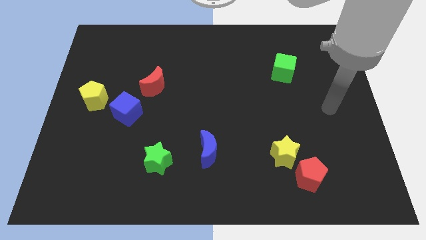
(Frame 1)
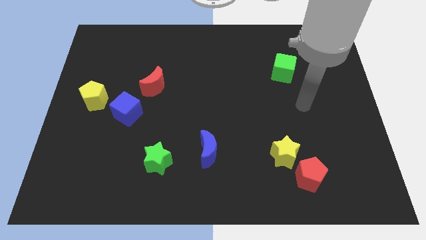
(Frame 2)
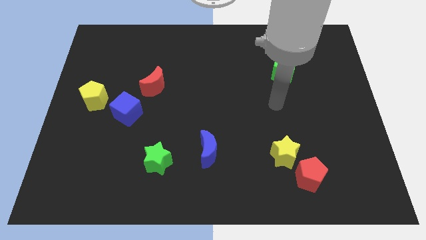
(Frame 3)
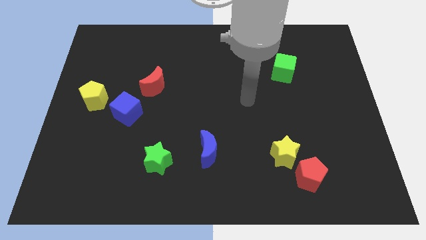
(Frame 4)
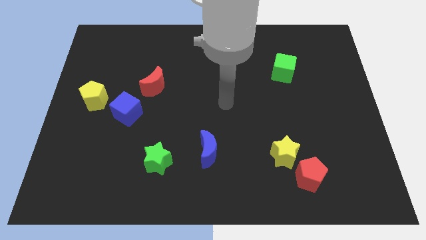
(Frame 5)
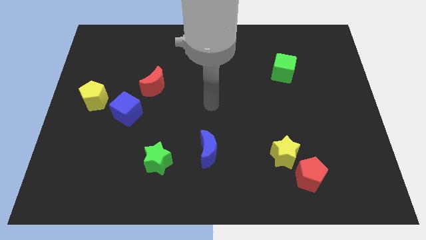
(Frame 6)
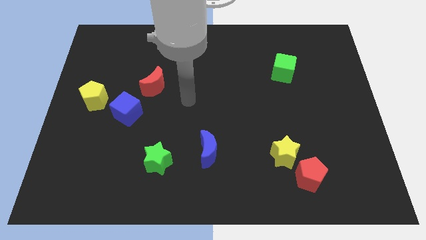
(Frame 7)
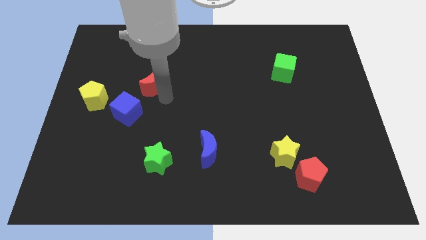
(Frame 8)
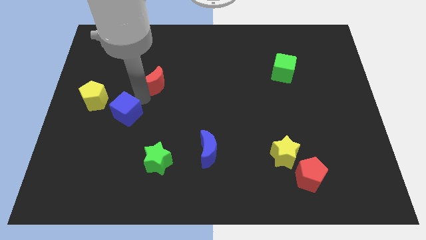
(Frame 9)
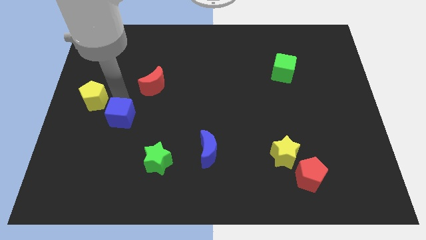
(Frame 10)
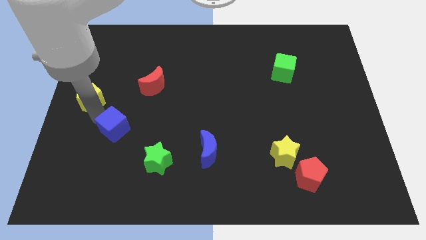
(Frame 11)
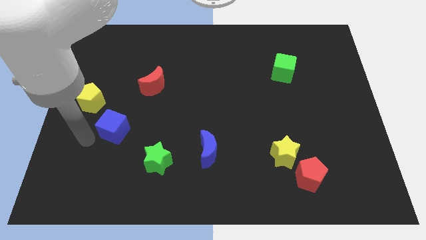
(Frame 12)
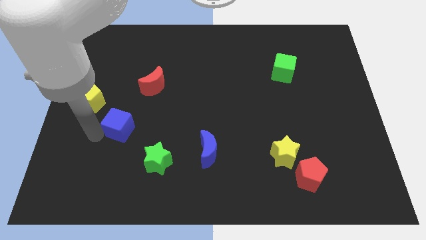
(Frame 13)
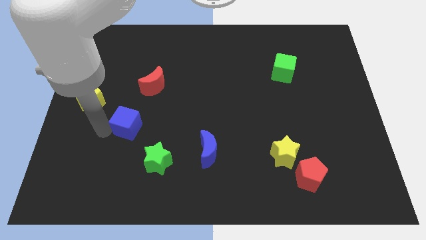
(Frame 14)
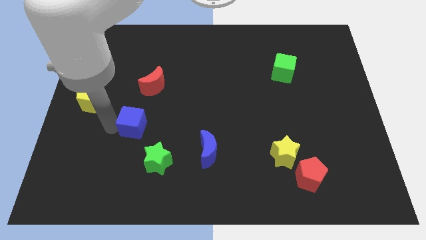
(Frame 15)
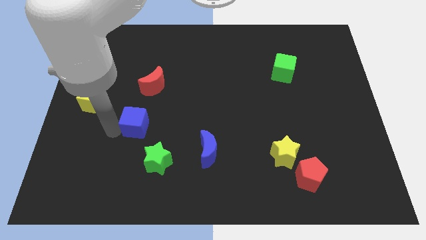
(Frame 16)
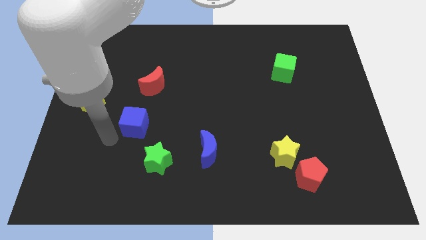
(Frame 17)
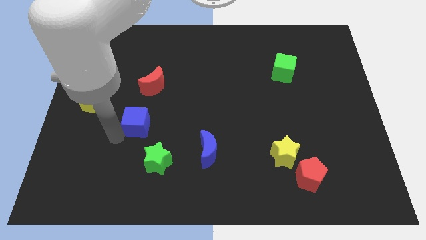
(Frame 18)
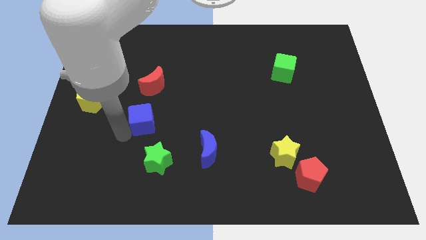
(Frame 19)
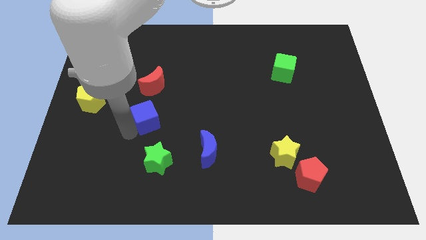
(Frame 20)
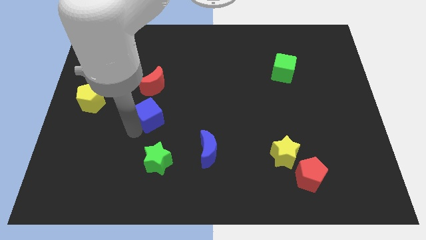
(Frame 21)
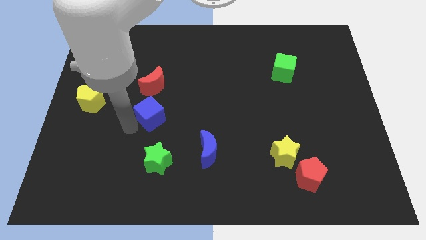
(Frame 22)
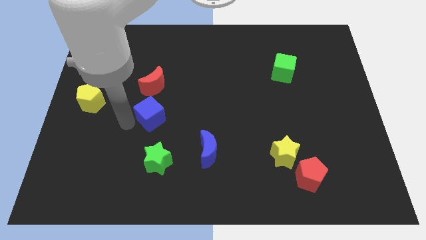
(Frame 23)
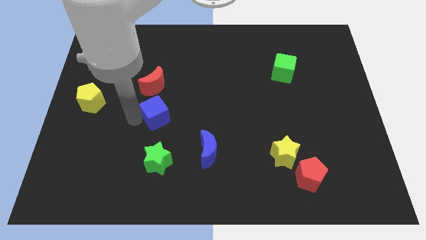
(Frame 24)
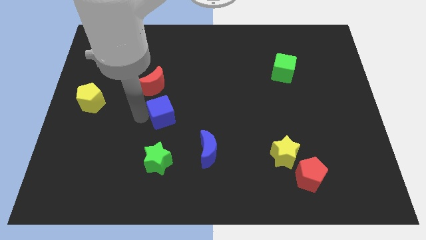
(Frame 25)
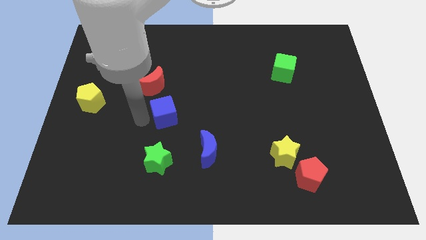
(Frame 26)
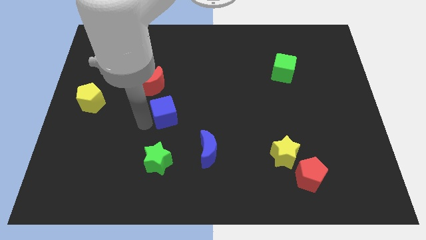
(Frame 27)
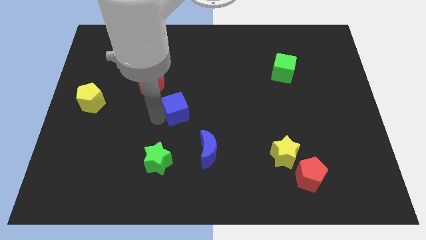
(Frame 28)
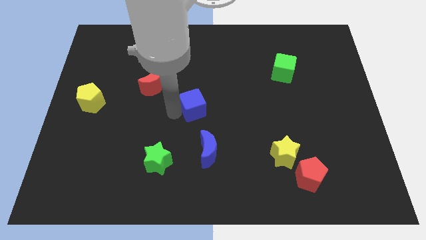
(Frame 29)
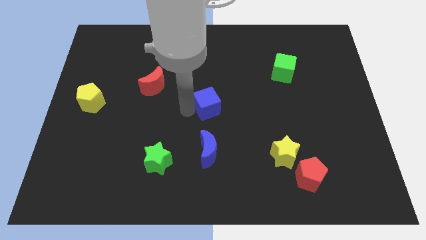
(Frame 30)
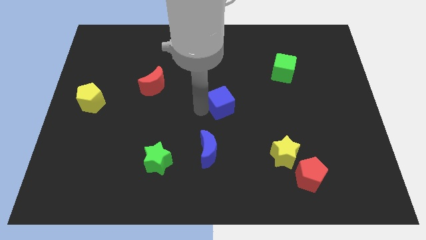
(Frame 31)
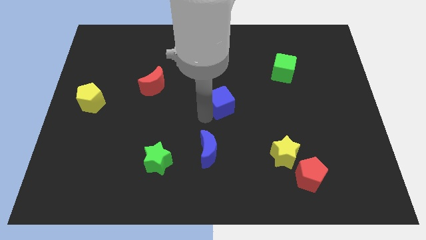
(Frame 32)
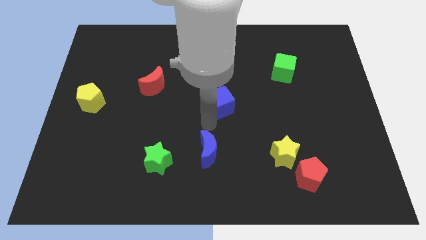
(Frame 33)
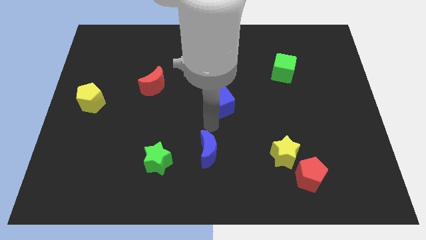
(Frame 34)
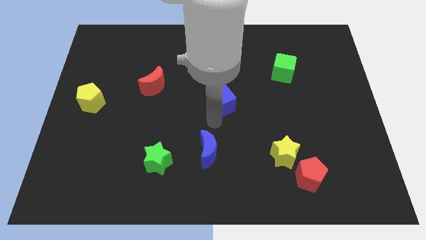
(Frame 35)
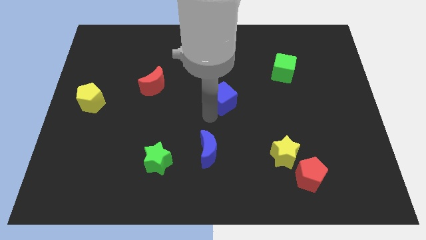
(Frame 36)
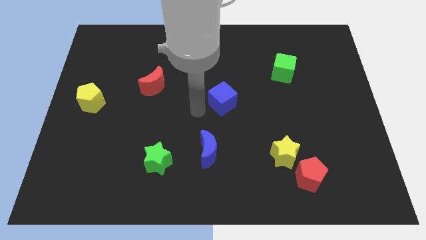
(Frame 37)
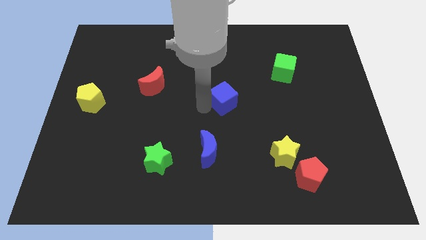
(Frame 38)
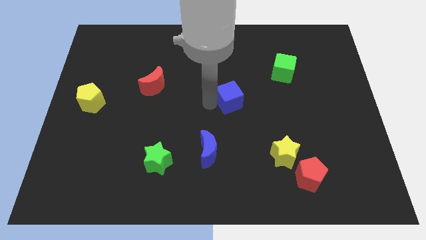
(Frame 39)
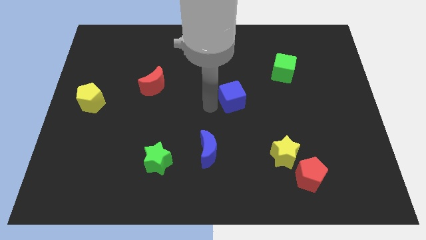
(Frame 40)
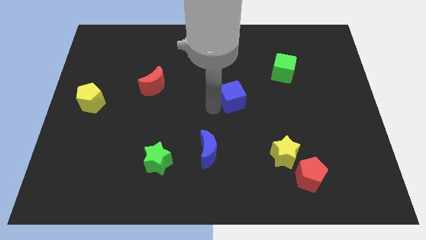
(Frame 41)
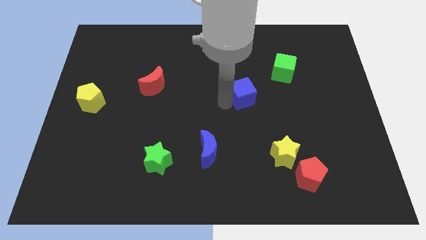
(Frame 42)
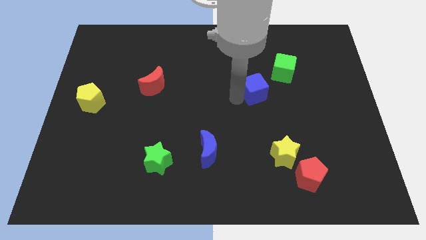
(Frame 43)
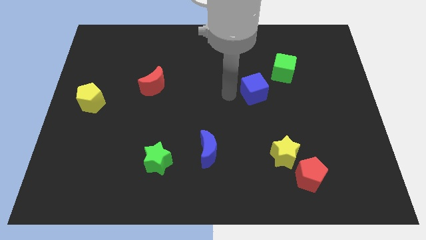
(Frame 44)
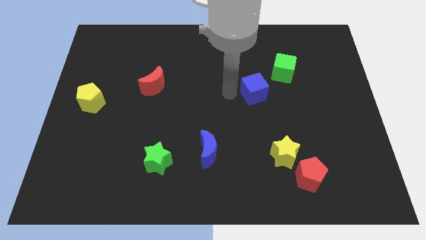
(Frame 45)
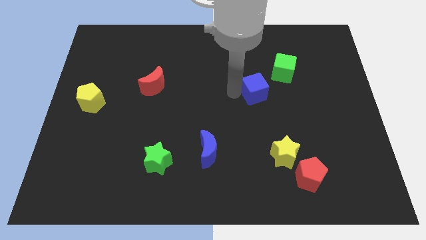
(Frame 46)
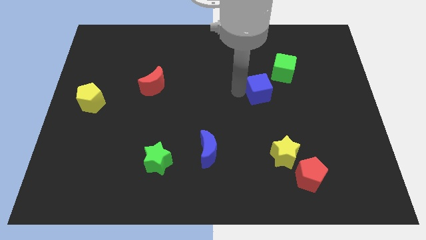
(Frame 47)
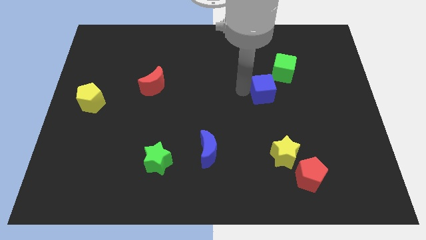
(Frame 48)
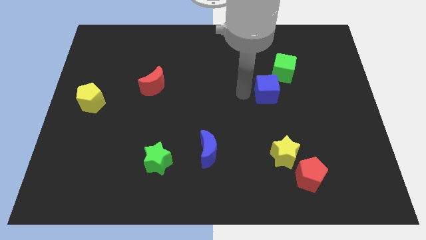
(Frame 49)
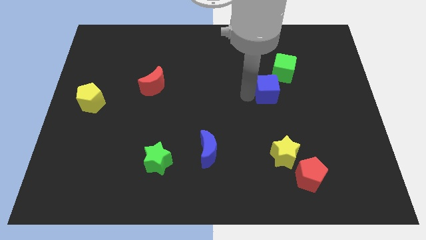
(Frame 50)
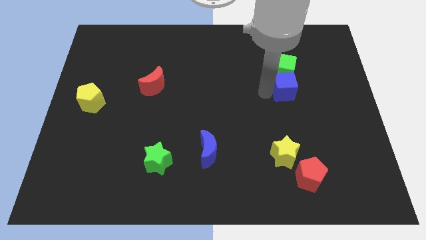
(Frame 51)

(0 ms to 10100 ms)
slide the blue cube to the bottom right side of the green cube

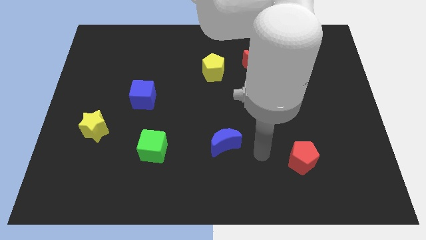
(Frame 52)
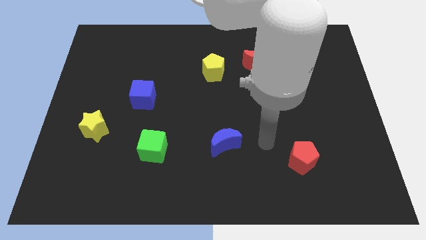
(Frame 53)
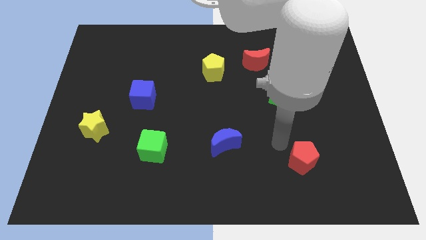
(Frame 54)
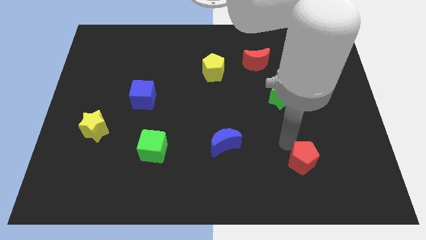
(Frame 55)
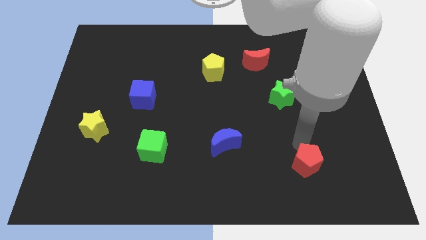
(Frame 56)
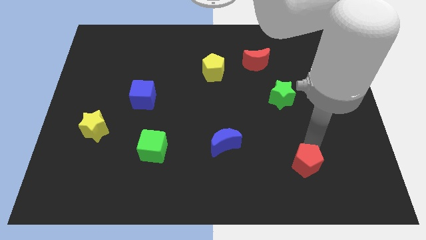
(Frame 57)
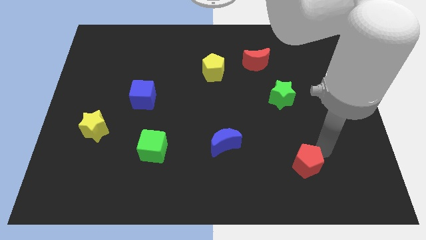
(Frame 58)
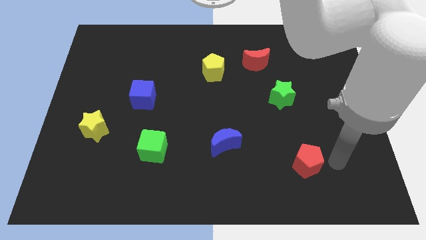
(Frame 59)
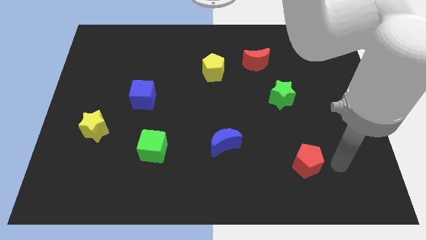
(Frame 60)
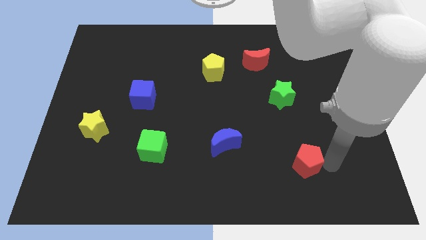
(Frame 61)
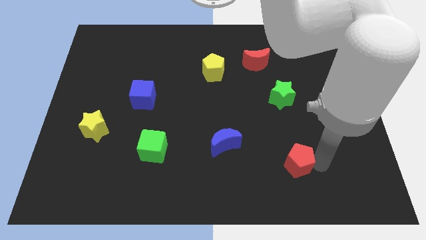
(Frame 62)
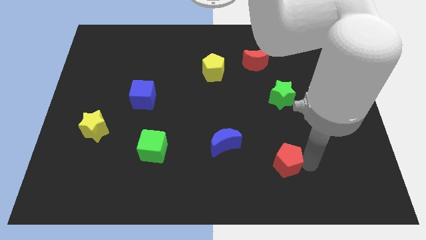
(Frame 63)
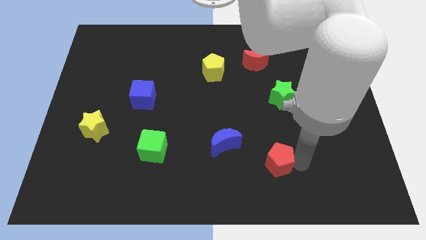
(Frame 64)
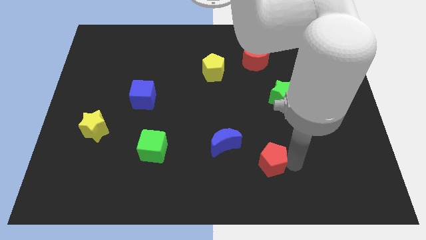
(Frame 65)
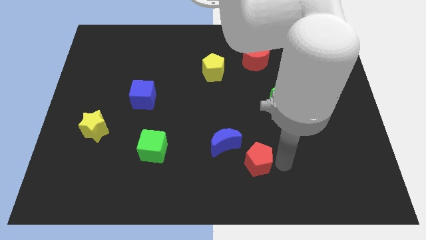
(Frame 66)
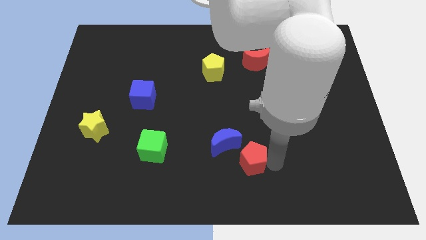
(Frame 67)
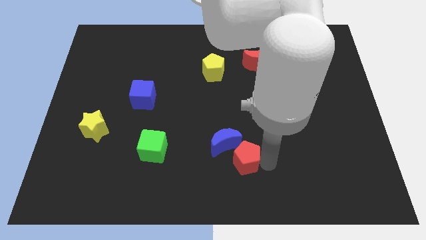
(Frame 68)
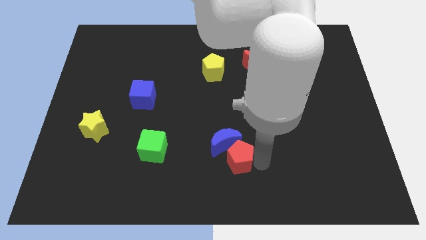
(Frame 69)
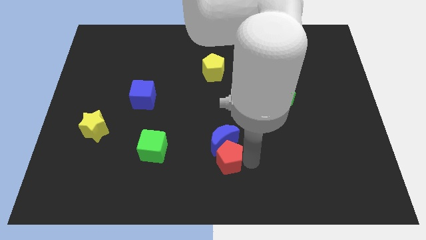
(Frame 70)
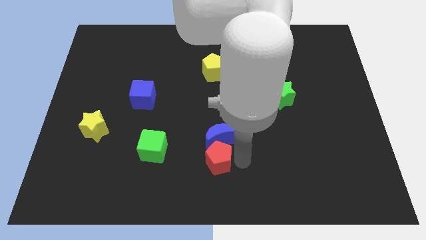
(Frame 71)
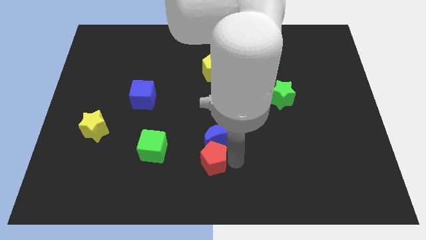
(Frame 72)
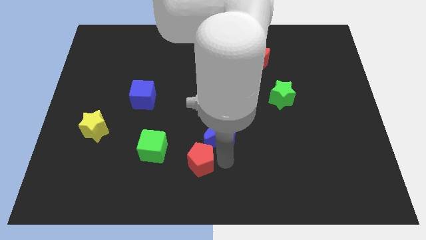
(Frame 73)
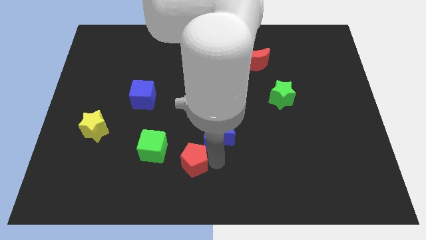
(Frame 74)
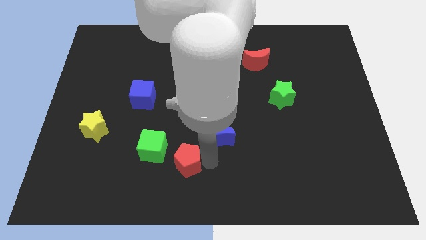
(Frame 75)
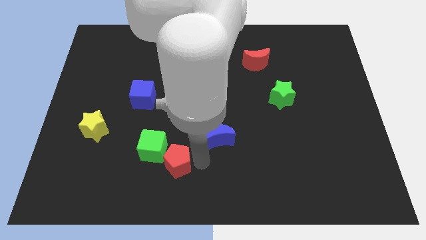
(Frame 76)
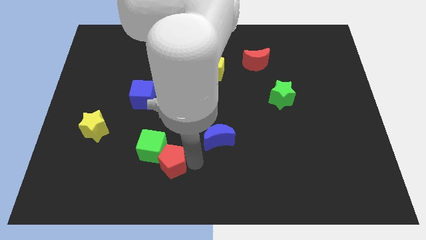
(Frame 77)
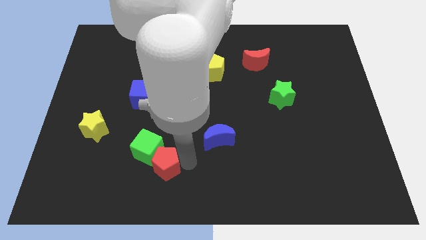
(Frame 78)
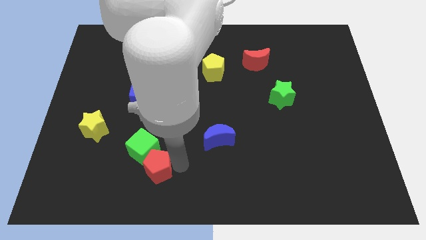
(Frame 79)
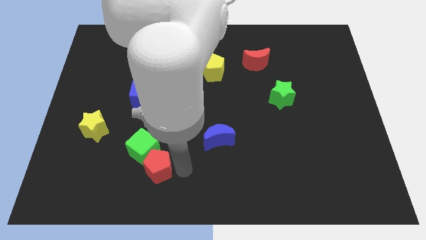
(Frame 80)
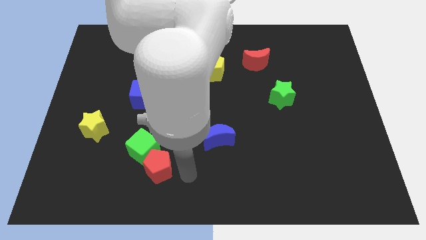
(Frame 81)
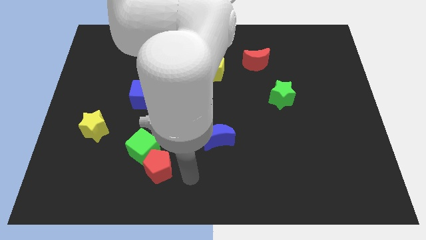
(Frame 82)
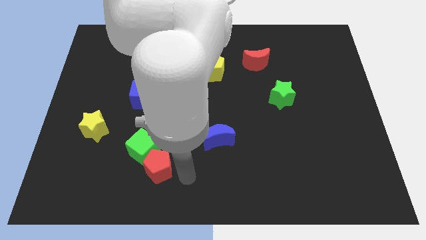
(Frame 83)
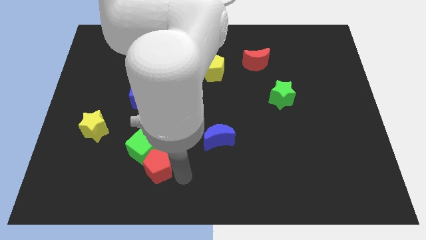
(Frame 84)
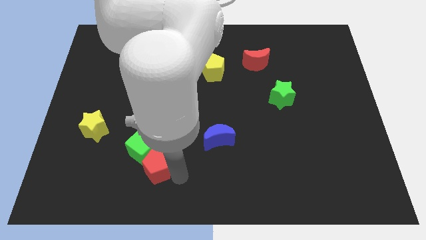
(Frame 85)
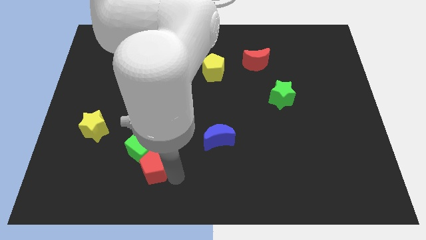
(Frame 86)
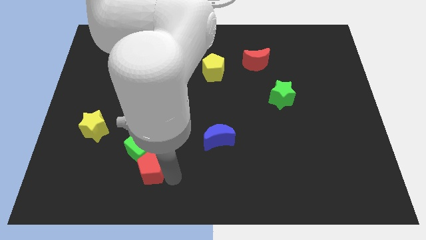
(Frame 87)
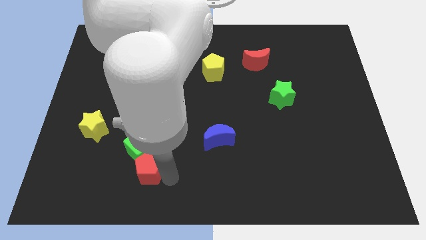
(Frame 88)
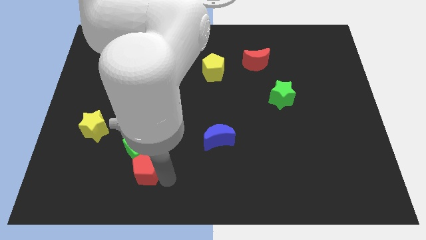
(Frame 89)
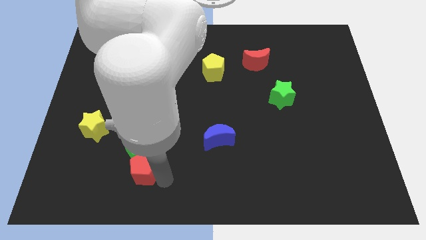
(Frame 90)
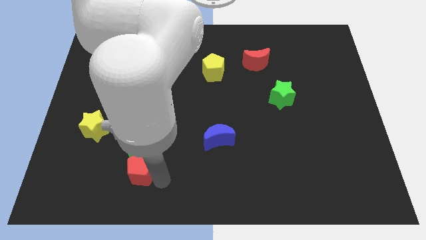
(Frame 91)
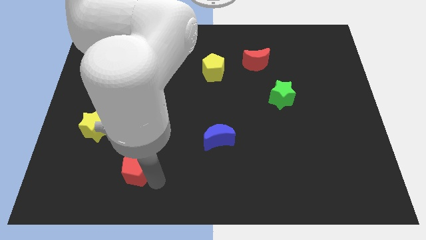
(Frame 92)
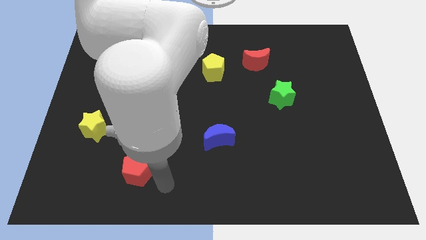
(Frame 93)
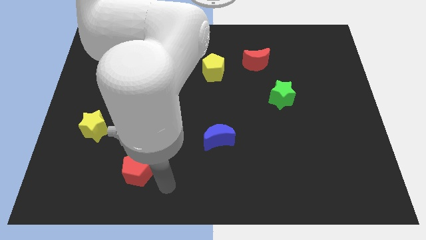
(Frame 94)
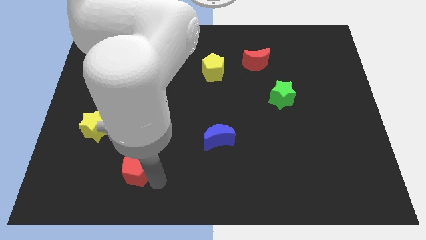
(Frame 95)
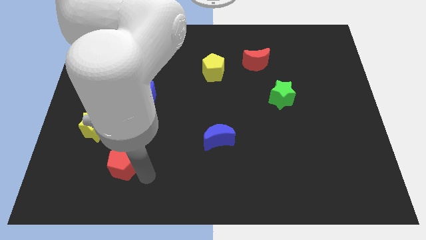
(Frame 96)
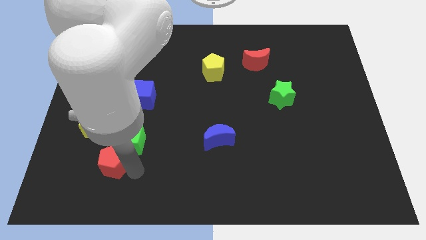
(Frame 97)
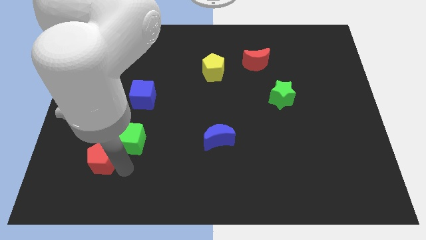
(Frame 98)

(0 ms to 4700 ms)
push the red pentagon to the left side of the green cube
